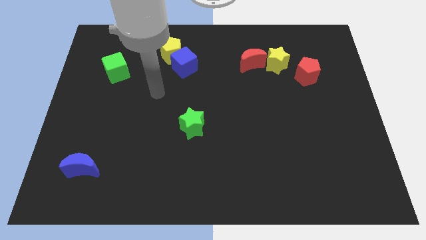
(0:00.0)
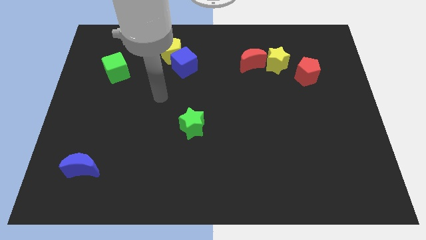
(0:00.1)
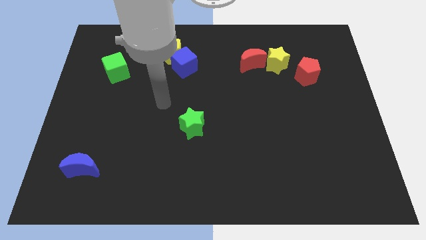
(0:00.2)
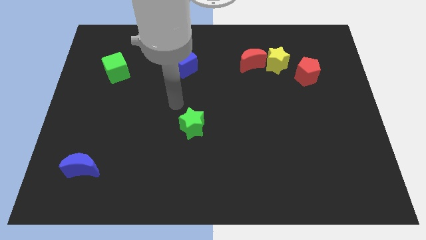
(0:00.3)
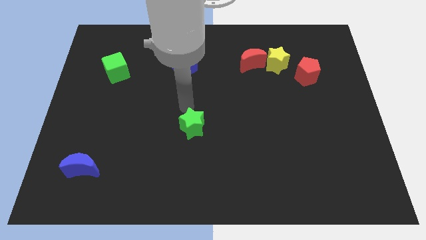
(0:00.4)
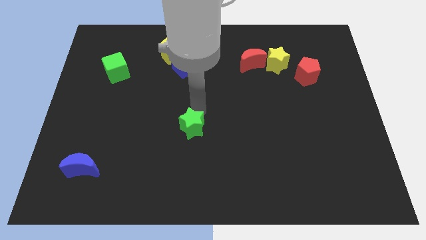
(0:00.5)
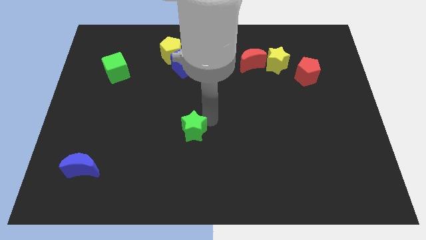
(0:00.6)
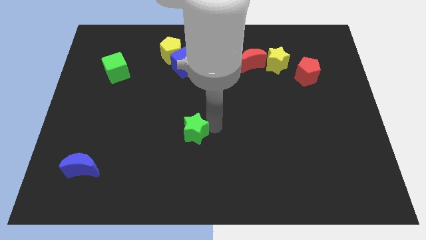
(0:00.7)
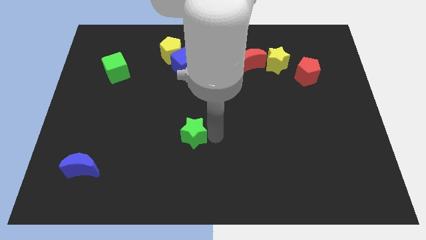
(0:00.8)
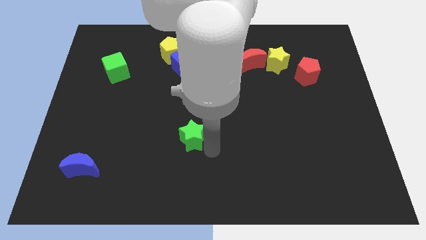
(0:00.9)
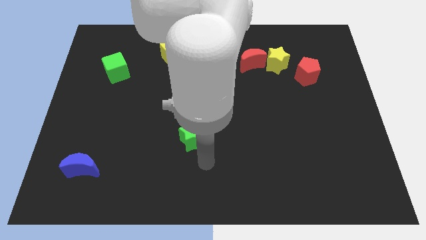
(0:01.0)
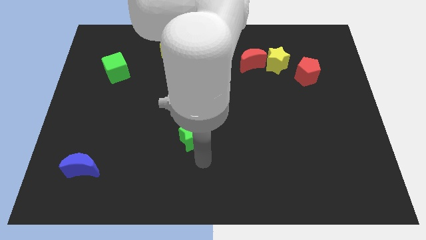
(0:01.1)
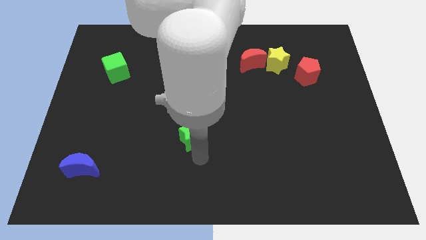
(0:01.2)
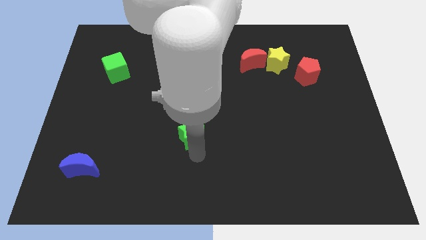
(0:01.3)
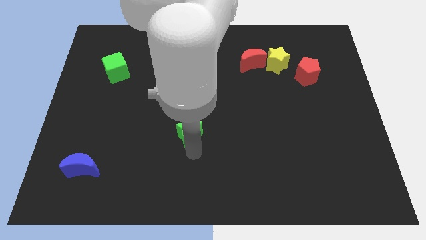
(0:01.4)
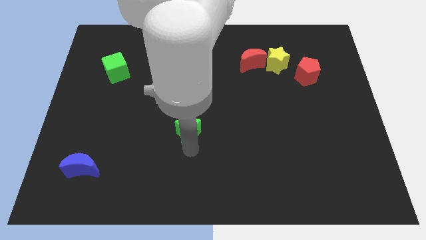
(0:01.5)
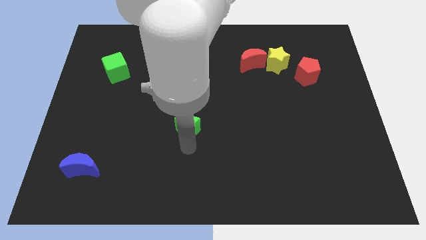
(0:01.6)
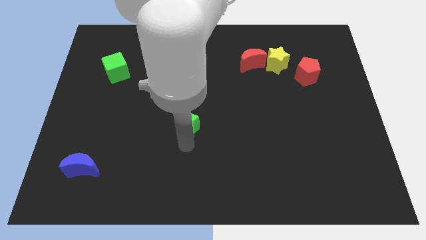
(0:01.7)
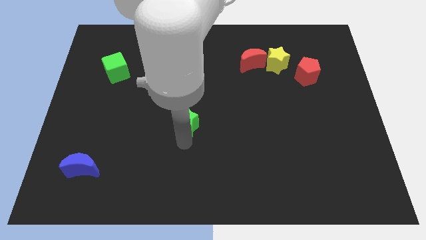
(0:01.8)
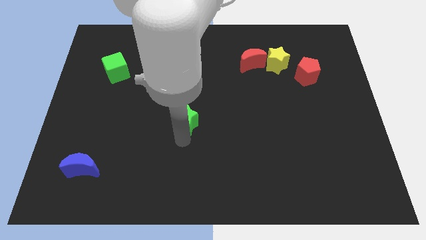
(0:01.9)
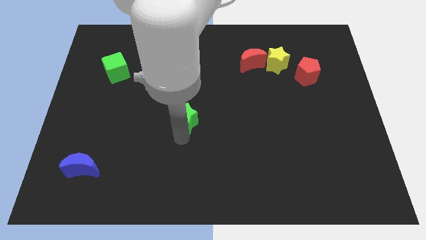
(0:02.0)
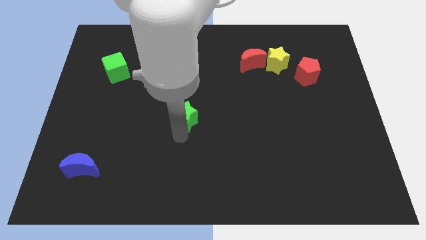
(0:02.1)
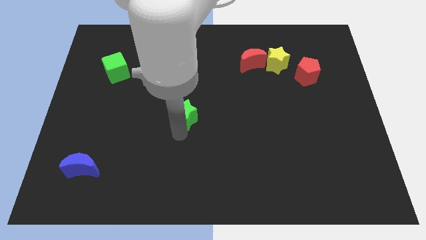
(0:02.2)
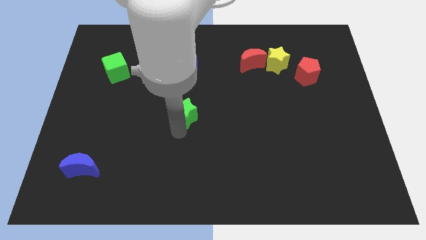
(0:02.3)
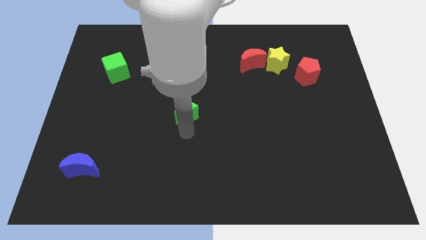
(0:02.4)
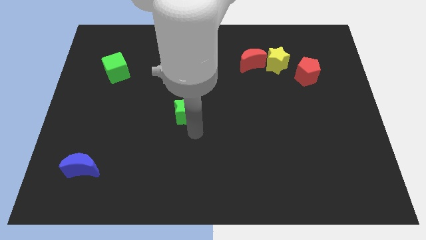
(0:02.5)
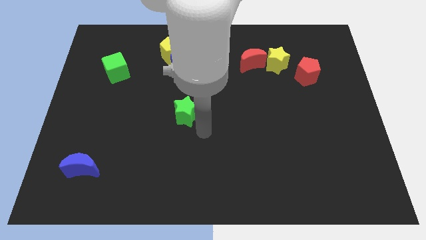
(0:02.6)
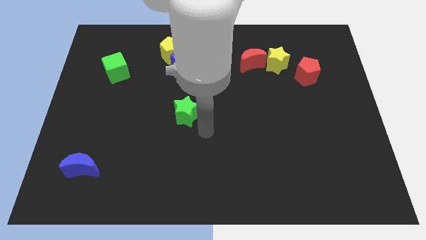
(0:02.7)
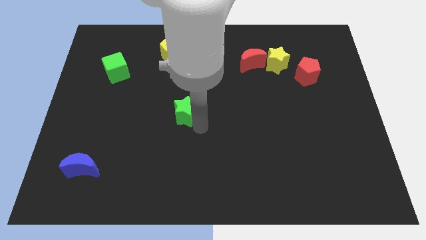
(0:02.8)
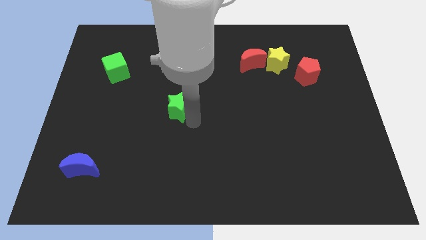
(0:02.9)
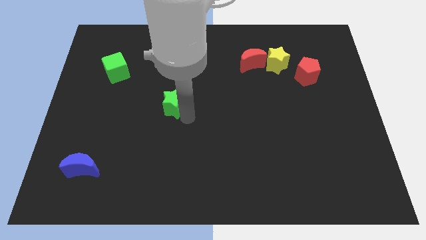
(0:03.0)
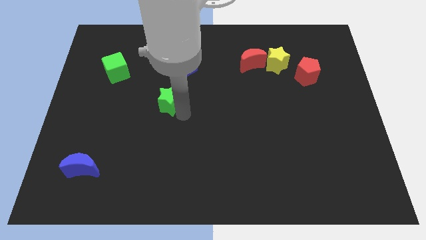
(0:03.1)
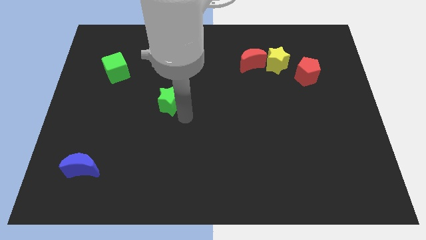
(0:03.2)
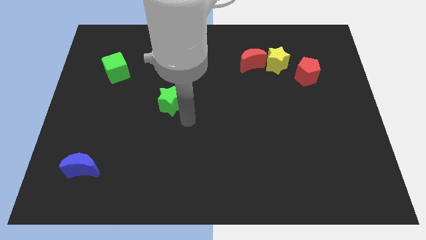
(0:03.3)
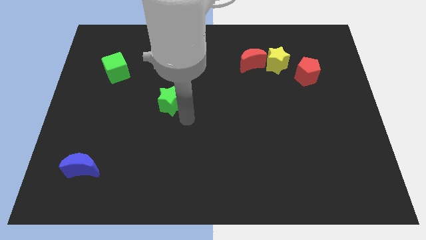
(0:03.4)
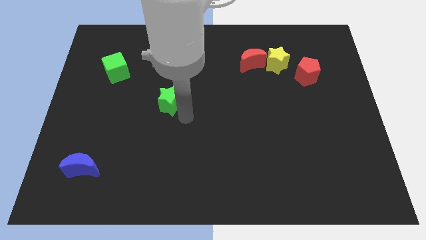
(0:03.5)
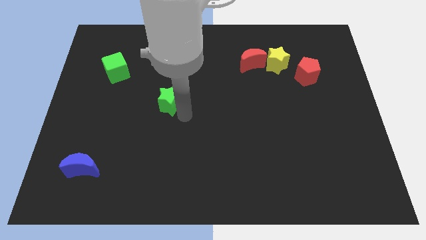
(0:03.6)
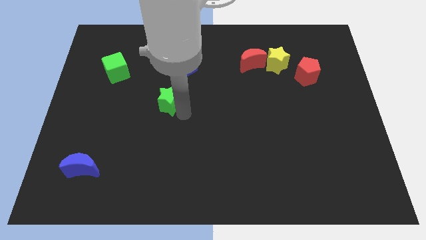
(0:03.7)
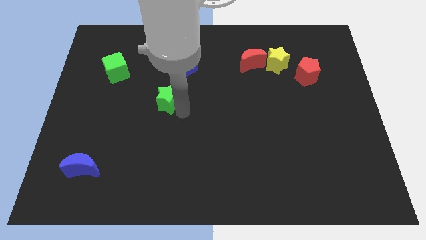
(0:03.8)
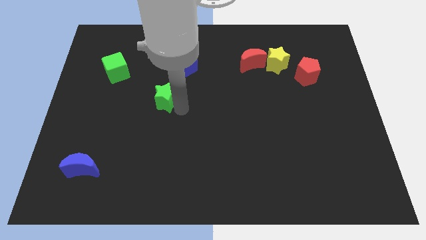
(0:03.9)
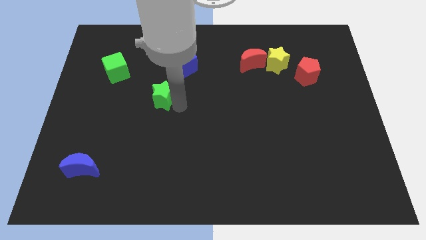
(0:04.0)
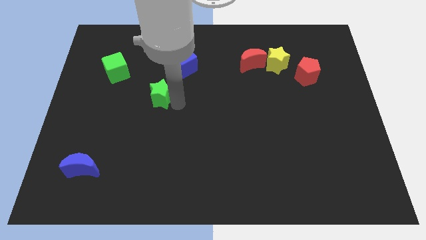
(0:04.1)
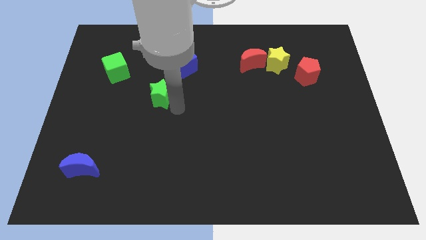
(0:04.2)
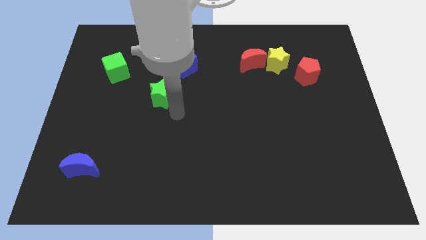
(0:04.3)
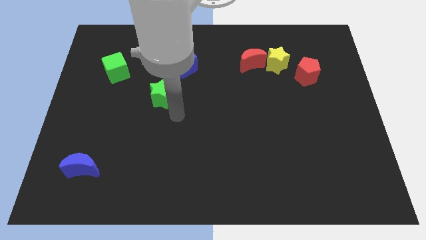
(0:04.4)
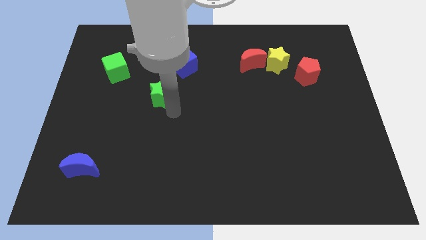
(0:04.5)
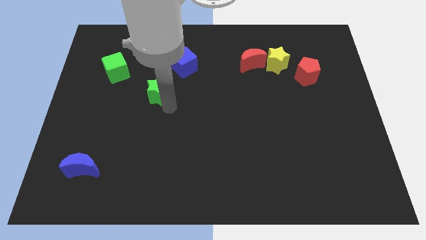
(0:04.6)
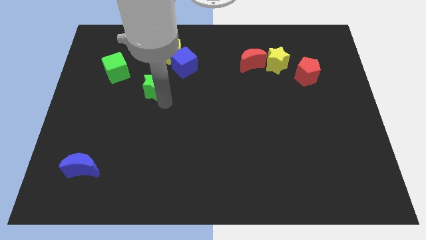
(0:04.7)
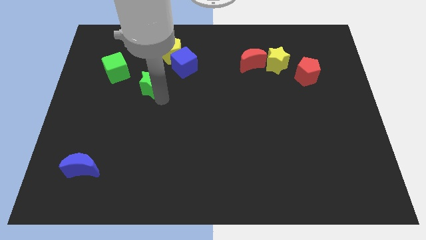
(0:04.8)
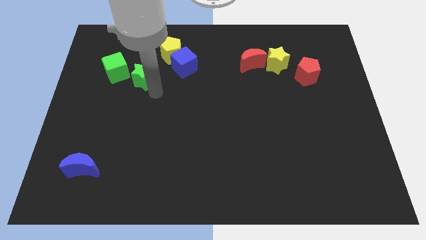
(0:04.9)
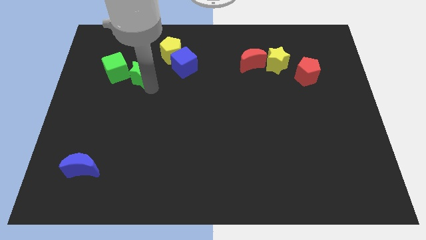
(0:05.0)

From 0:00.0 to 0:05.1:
slide the green star up and then to the left

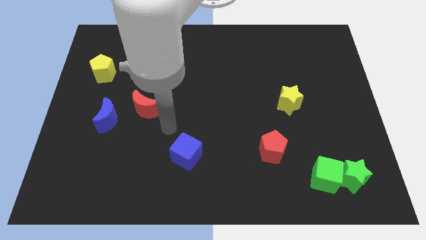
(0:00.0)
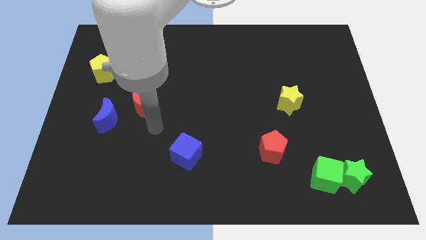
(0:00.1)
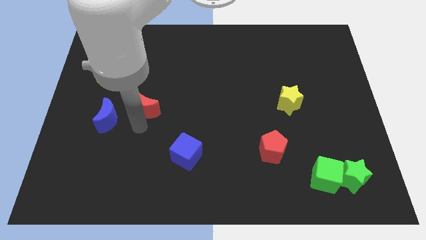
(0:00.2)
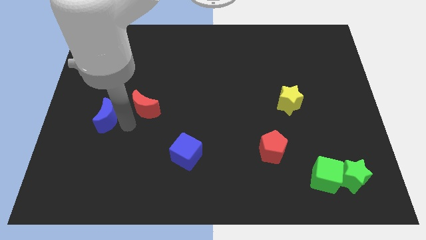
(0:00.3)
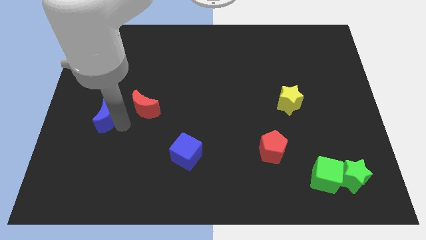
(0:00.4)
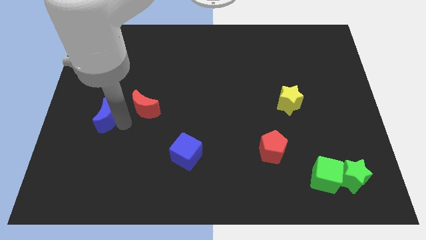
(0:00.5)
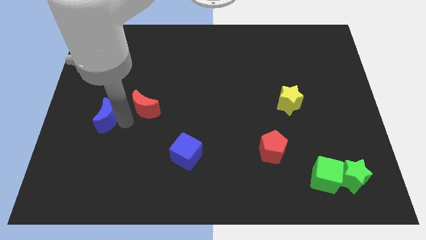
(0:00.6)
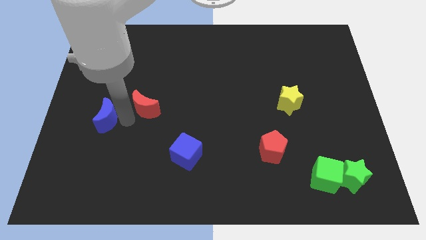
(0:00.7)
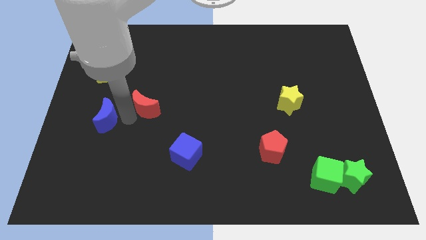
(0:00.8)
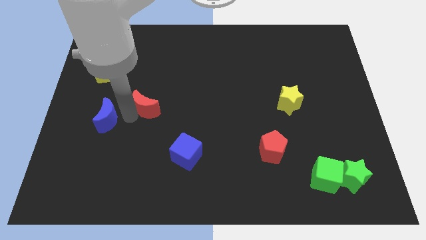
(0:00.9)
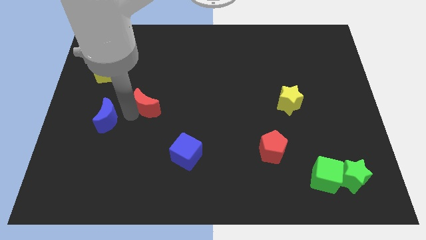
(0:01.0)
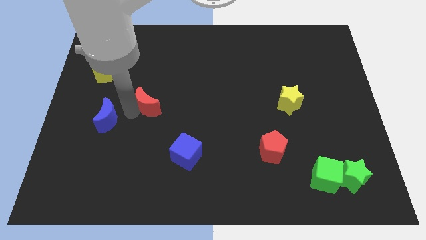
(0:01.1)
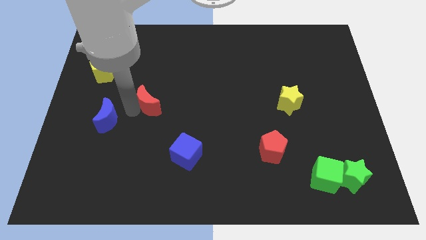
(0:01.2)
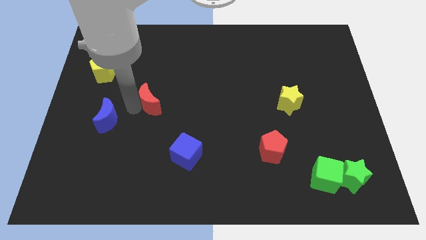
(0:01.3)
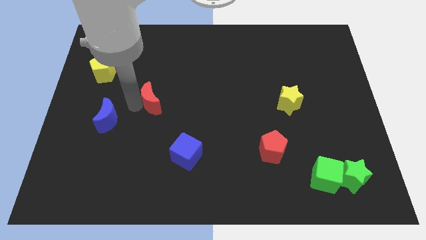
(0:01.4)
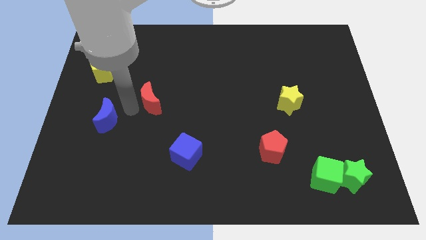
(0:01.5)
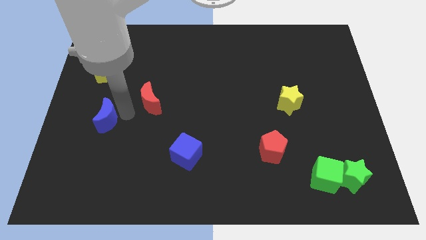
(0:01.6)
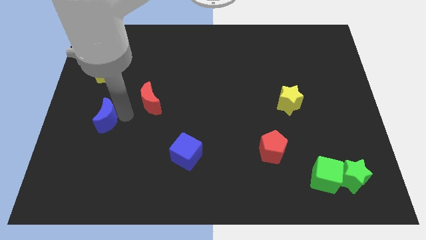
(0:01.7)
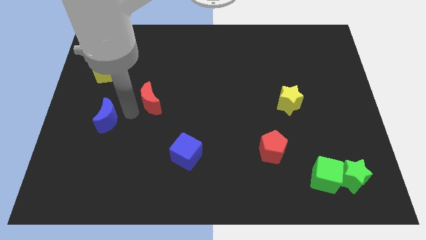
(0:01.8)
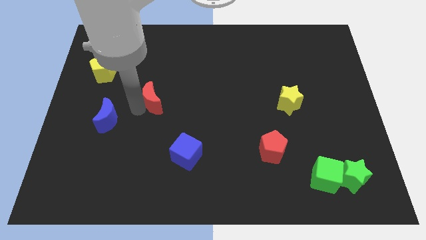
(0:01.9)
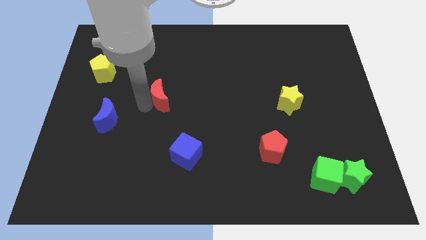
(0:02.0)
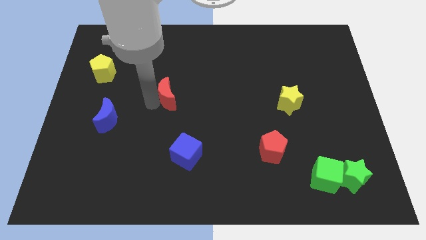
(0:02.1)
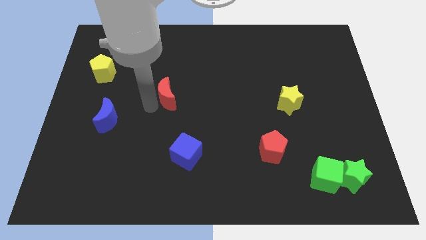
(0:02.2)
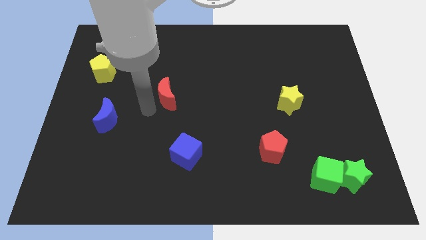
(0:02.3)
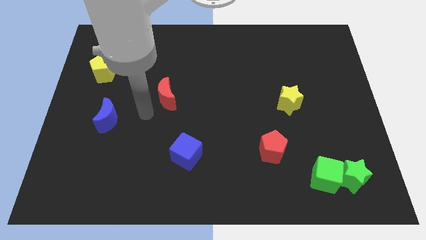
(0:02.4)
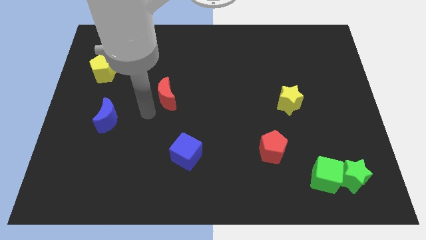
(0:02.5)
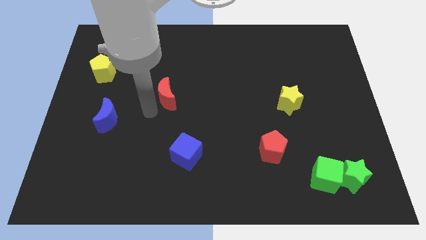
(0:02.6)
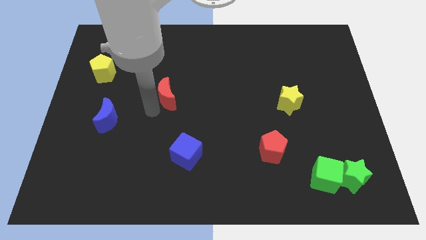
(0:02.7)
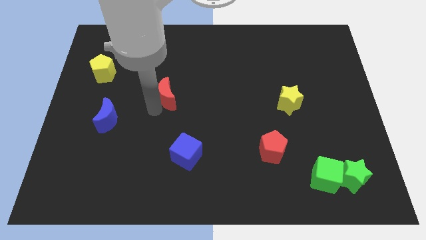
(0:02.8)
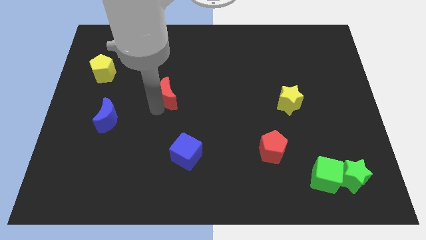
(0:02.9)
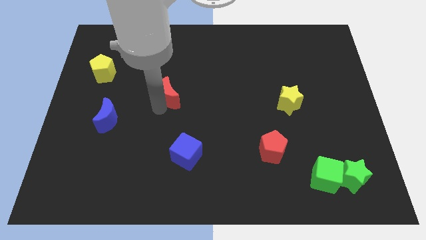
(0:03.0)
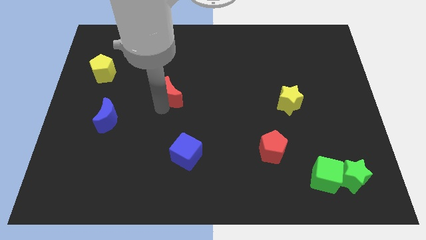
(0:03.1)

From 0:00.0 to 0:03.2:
push the red moon a little bit upwards and right diagonally
